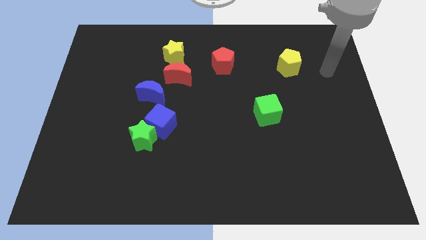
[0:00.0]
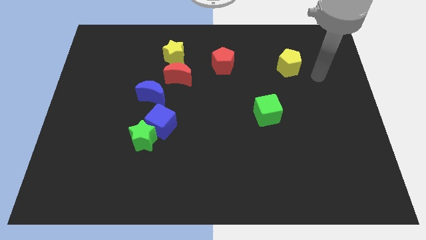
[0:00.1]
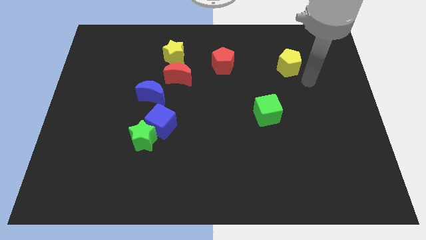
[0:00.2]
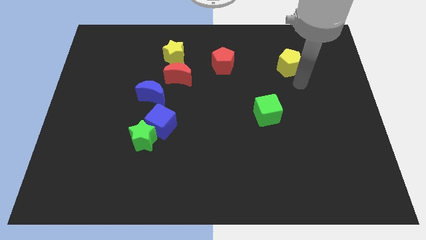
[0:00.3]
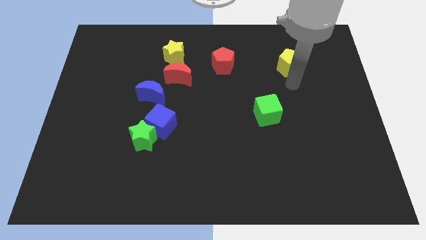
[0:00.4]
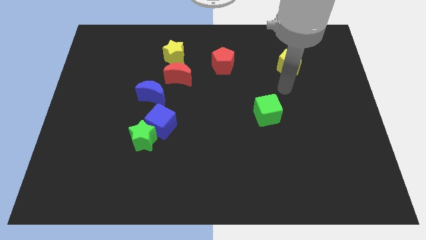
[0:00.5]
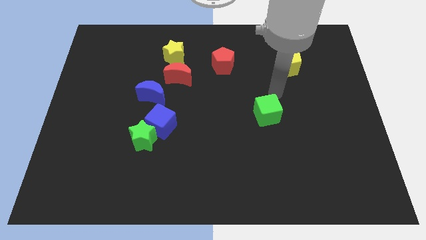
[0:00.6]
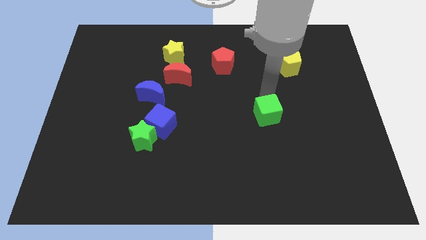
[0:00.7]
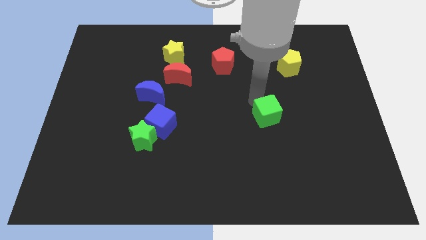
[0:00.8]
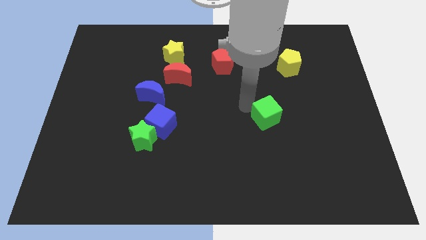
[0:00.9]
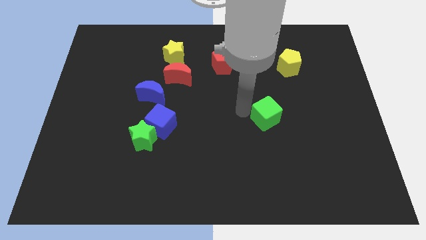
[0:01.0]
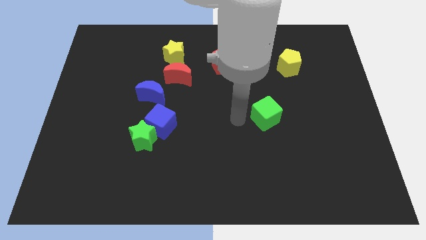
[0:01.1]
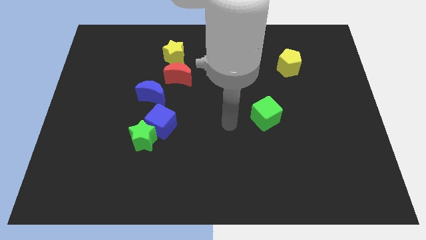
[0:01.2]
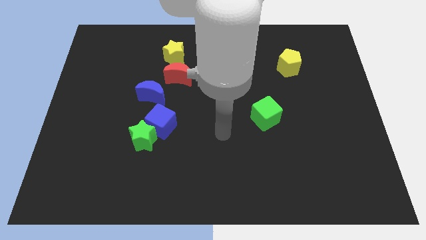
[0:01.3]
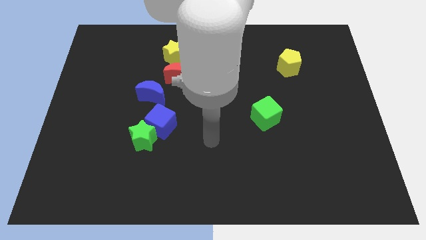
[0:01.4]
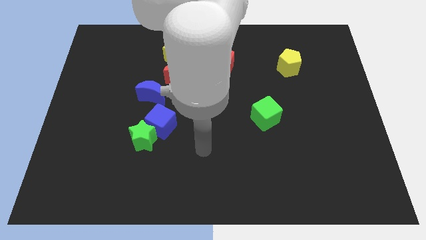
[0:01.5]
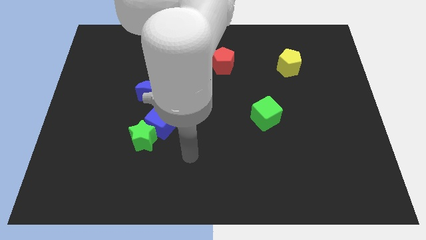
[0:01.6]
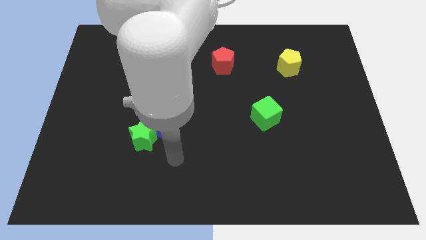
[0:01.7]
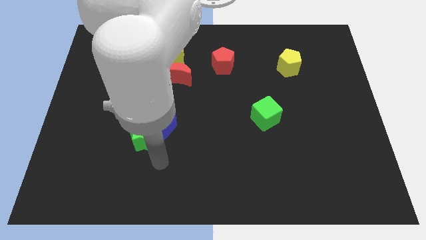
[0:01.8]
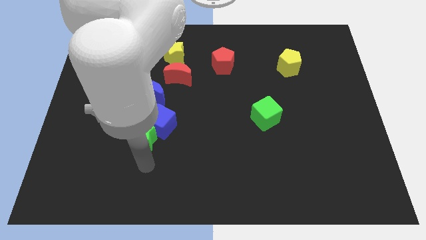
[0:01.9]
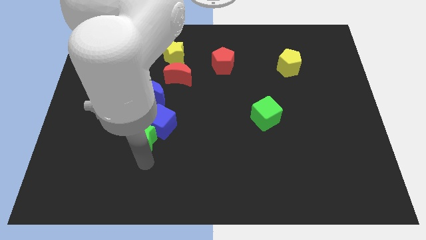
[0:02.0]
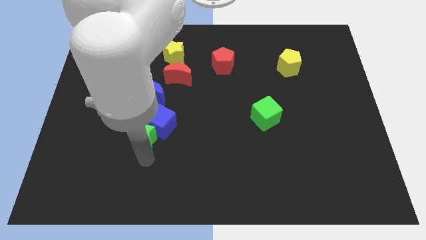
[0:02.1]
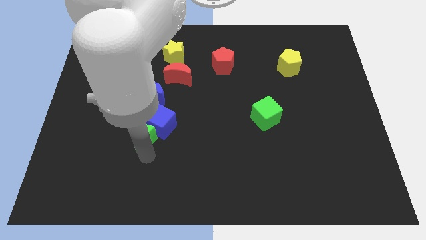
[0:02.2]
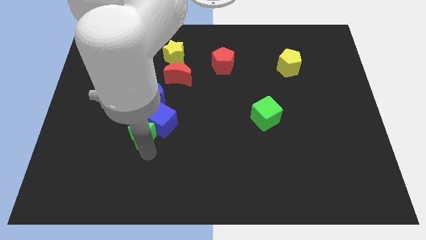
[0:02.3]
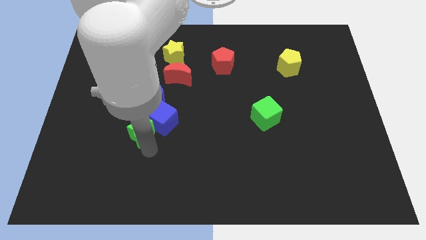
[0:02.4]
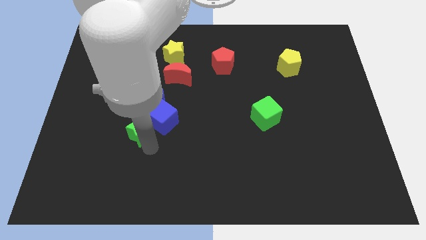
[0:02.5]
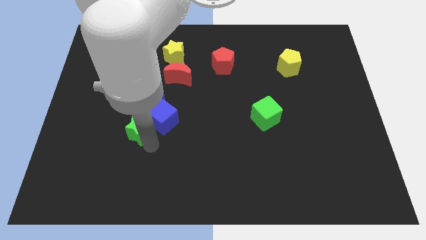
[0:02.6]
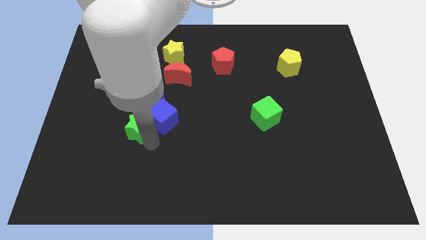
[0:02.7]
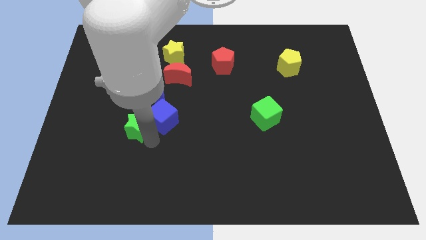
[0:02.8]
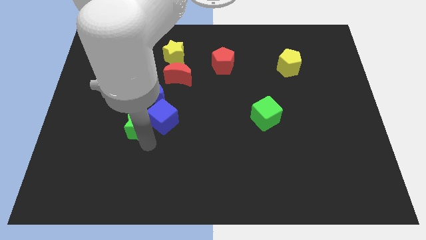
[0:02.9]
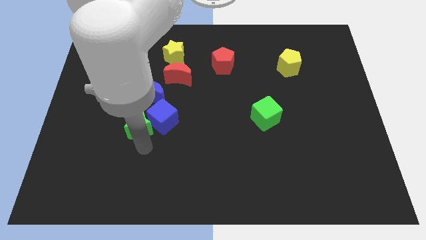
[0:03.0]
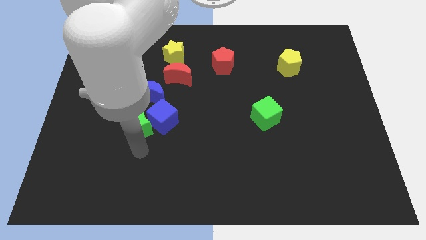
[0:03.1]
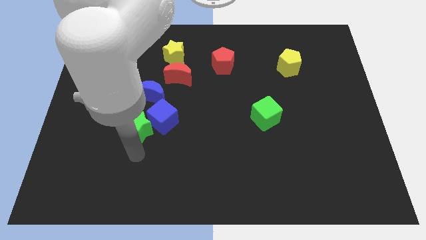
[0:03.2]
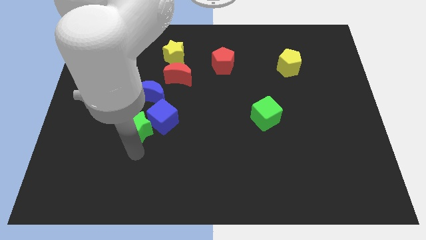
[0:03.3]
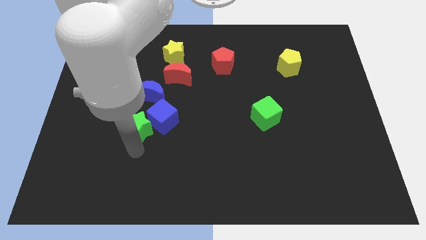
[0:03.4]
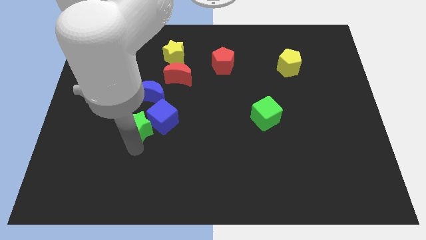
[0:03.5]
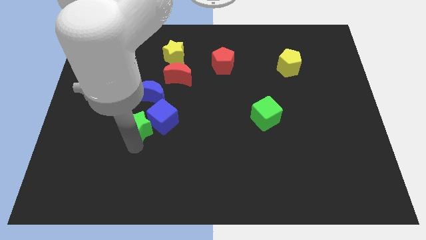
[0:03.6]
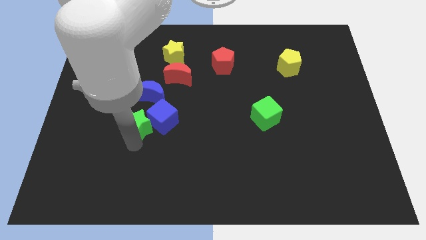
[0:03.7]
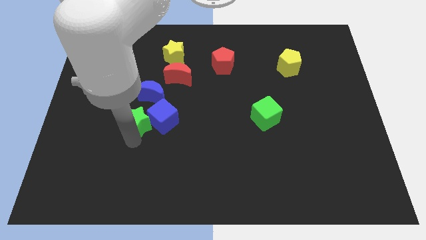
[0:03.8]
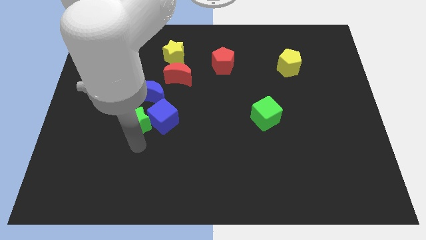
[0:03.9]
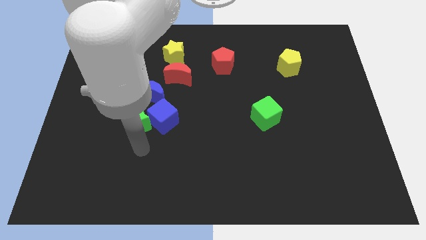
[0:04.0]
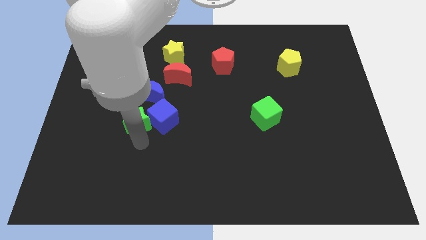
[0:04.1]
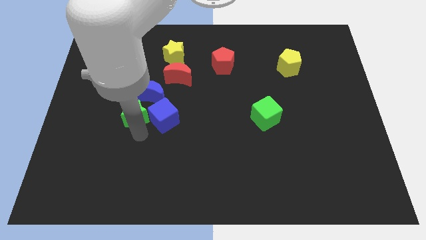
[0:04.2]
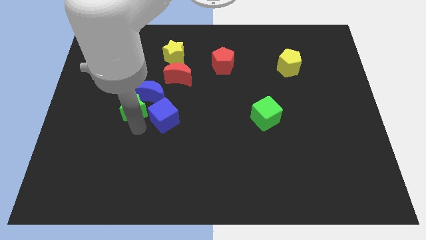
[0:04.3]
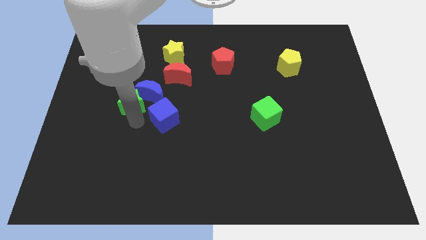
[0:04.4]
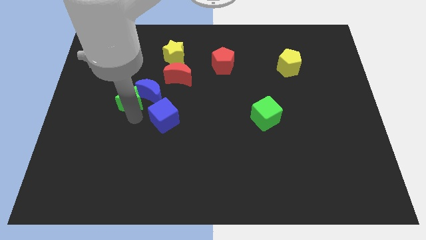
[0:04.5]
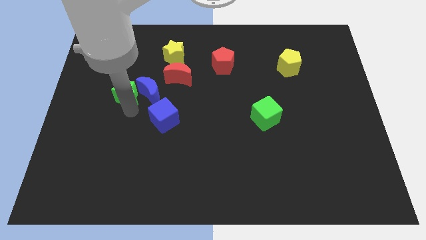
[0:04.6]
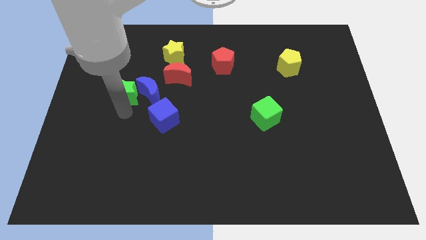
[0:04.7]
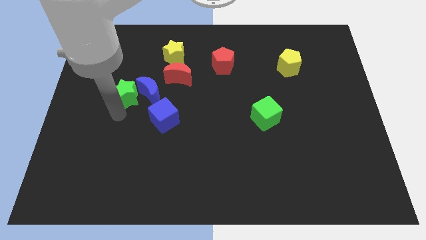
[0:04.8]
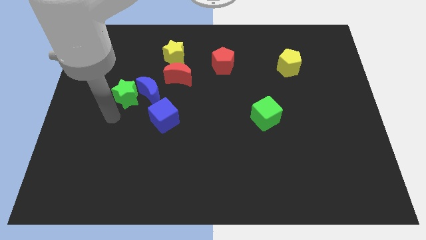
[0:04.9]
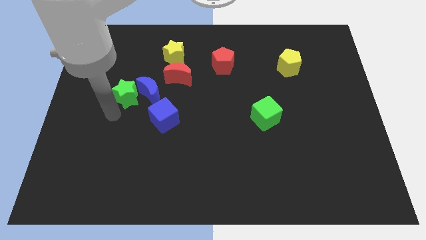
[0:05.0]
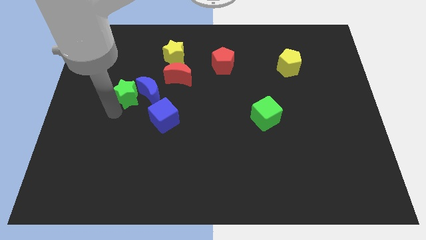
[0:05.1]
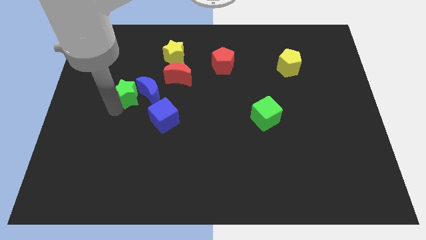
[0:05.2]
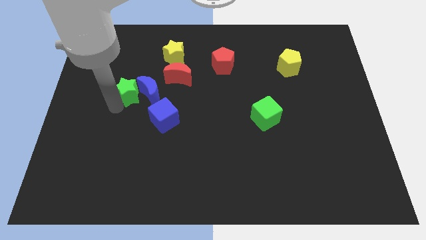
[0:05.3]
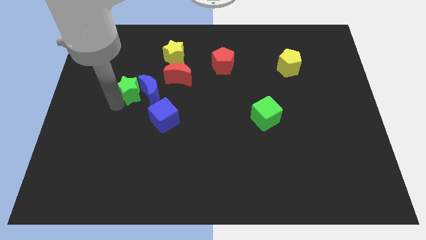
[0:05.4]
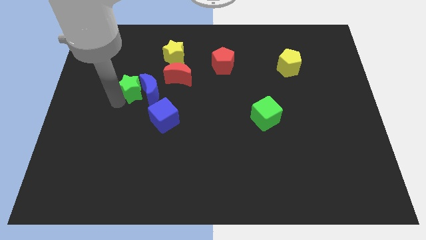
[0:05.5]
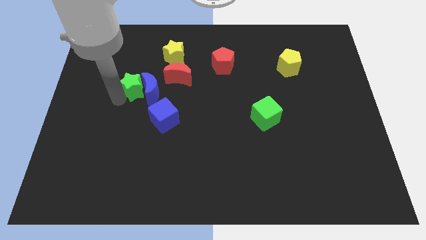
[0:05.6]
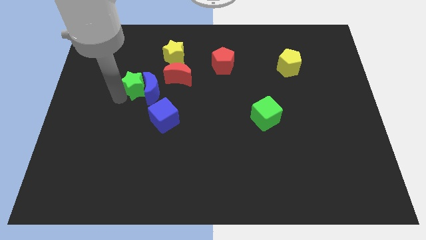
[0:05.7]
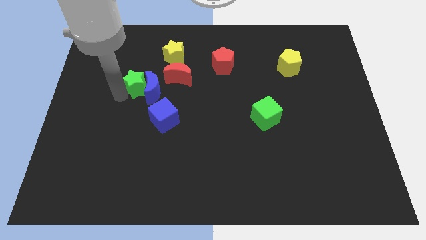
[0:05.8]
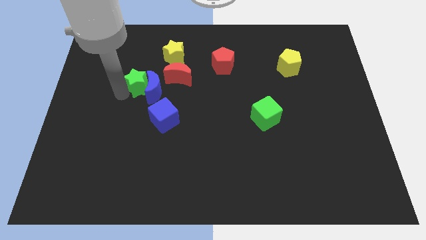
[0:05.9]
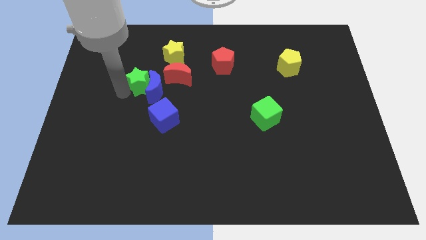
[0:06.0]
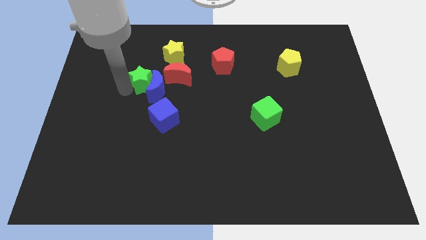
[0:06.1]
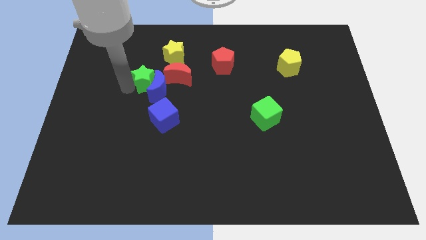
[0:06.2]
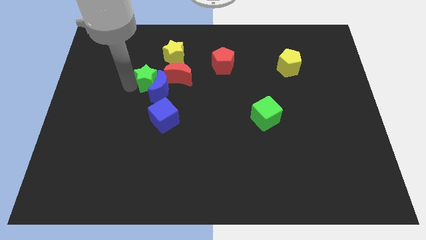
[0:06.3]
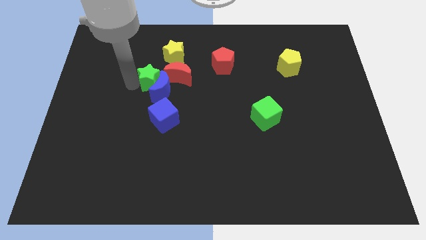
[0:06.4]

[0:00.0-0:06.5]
put the green star to the top of the blue cube

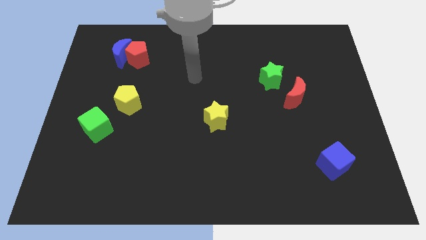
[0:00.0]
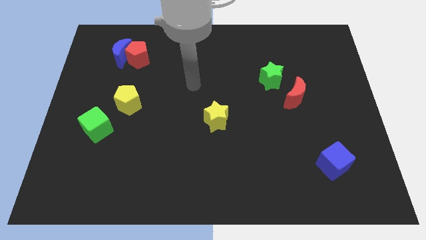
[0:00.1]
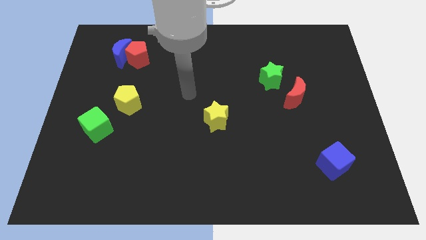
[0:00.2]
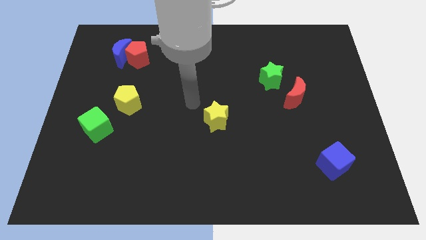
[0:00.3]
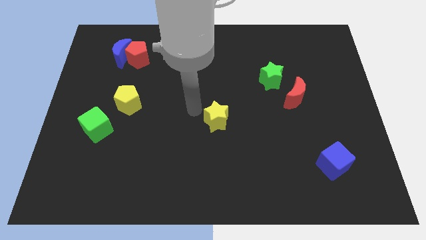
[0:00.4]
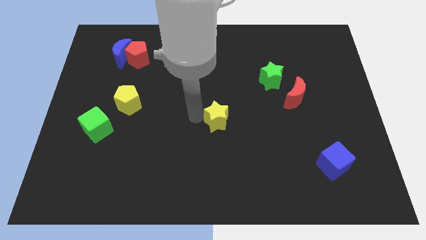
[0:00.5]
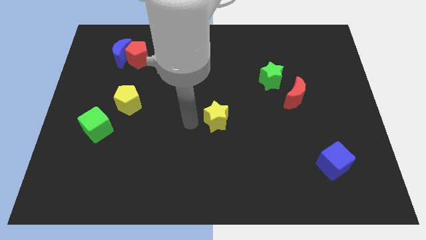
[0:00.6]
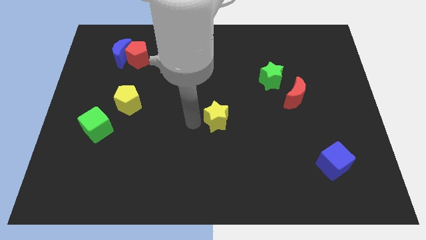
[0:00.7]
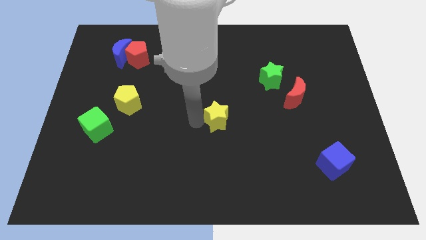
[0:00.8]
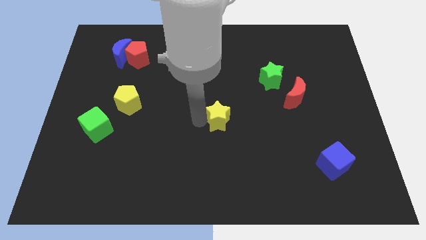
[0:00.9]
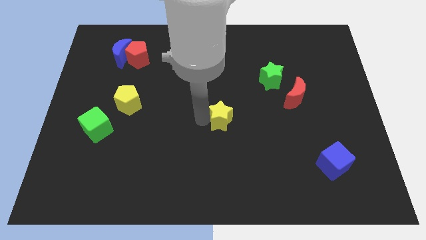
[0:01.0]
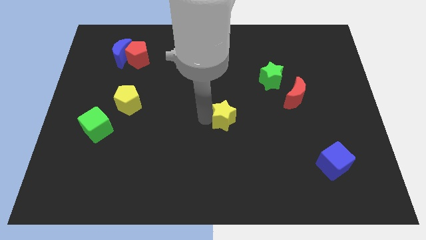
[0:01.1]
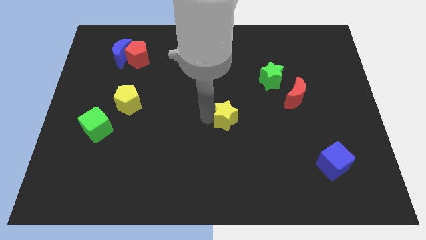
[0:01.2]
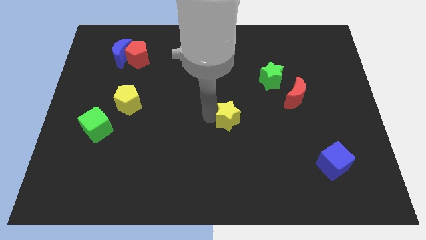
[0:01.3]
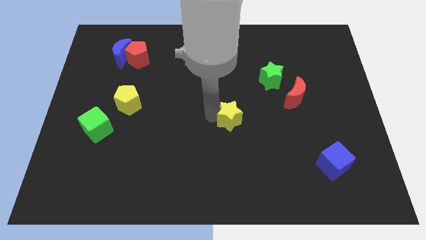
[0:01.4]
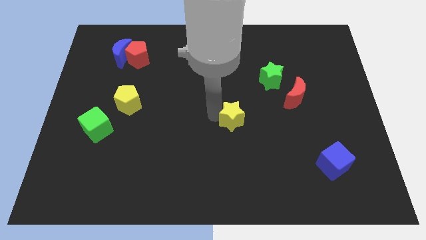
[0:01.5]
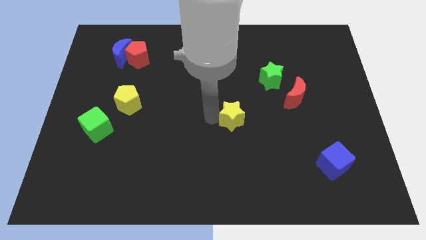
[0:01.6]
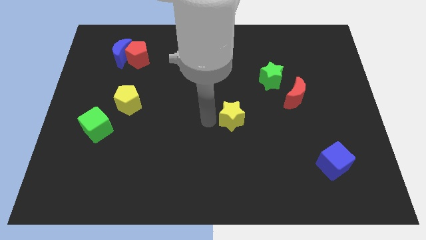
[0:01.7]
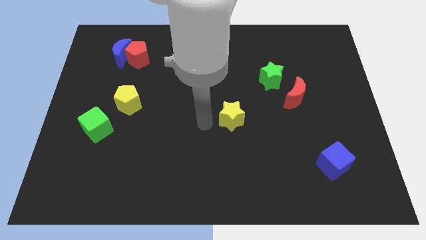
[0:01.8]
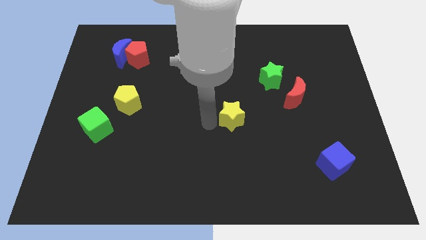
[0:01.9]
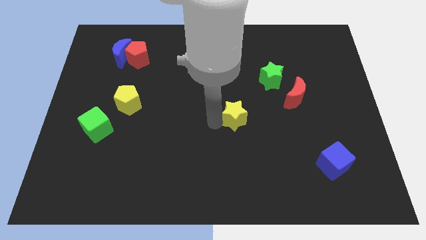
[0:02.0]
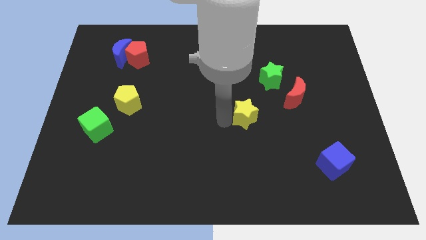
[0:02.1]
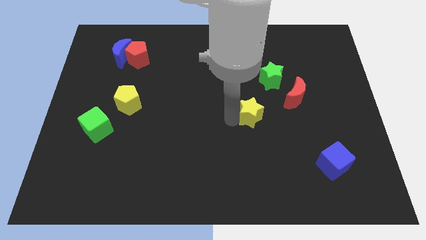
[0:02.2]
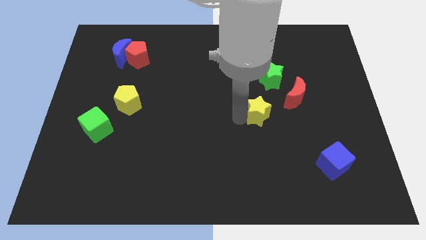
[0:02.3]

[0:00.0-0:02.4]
slide the yellow star to the bottom left of the red moon
